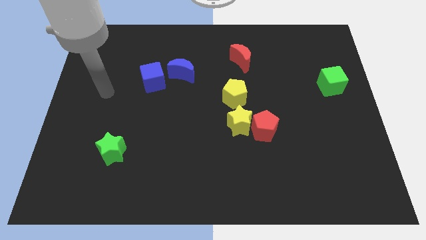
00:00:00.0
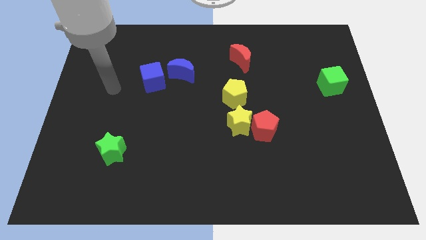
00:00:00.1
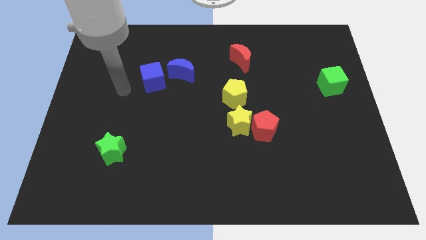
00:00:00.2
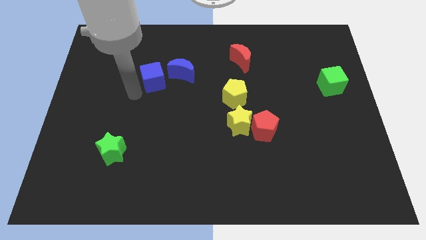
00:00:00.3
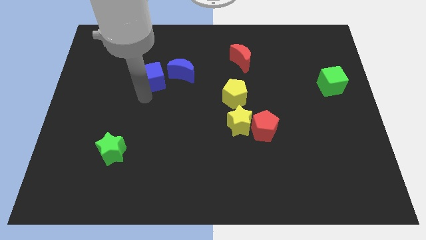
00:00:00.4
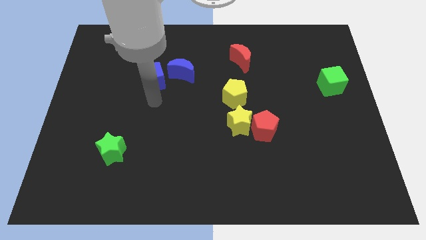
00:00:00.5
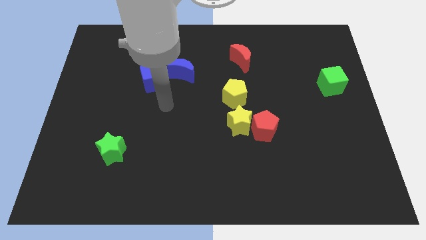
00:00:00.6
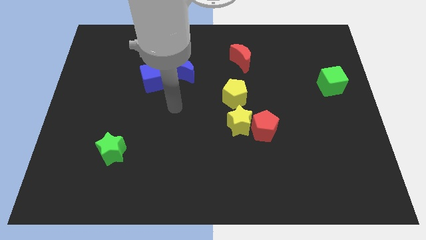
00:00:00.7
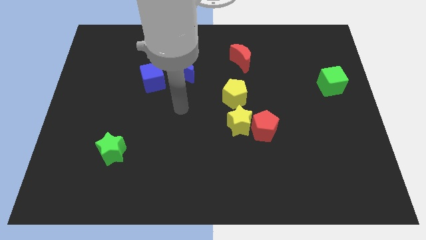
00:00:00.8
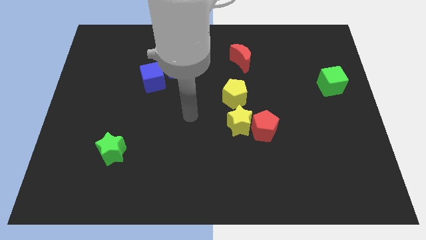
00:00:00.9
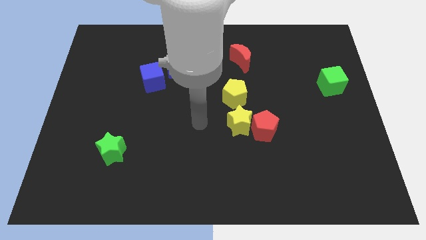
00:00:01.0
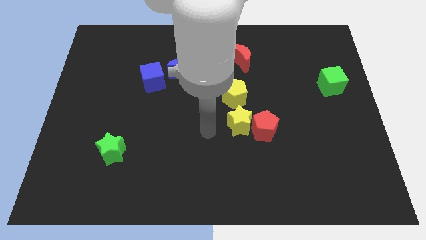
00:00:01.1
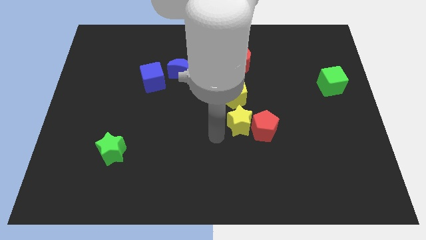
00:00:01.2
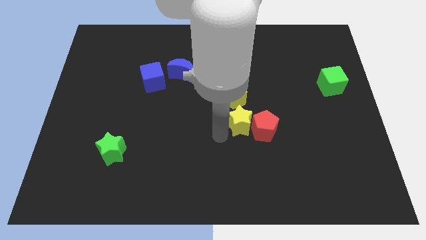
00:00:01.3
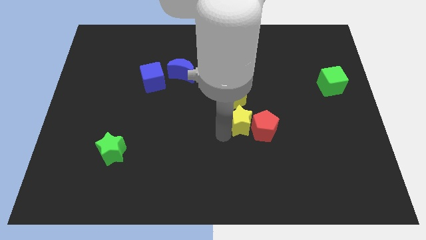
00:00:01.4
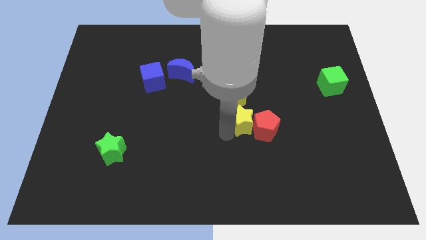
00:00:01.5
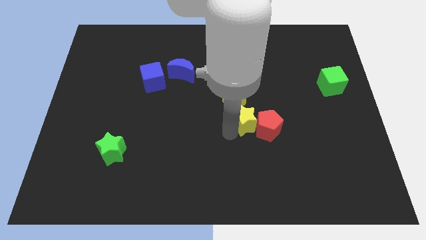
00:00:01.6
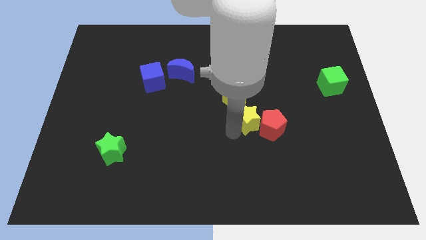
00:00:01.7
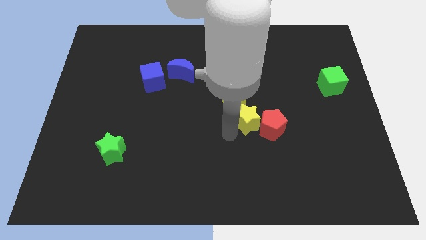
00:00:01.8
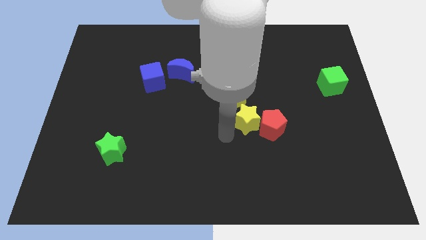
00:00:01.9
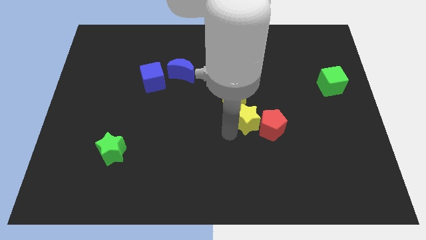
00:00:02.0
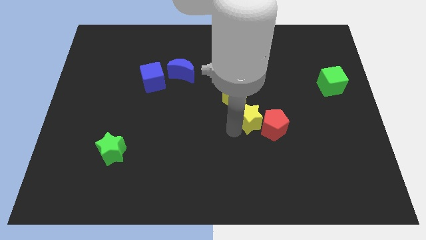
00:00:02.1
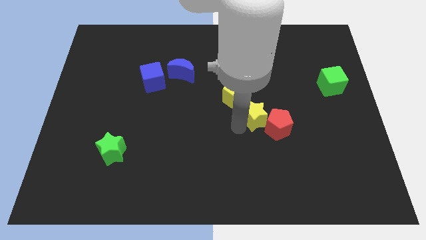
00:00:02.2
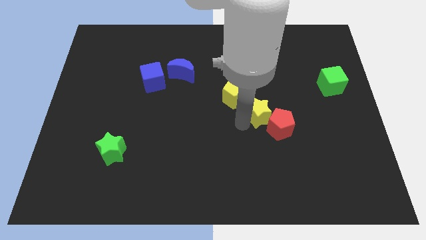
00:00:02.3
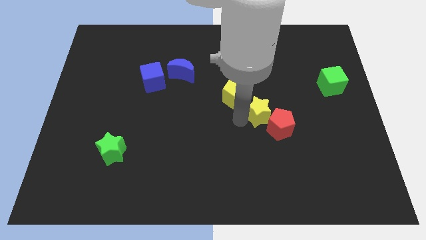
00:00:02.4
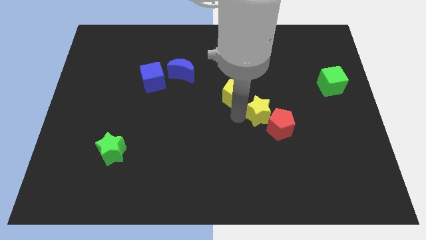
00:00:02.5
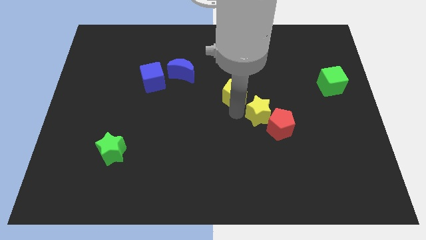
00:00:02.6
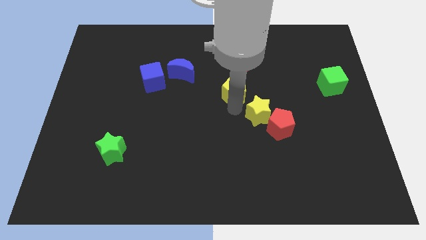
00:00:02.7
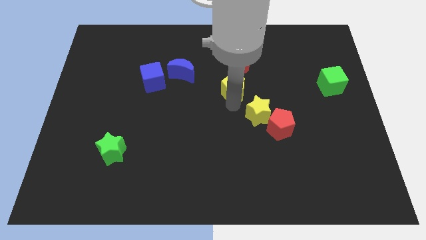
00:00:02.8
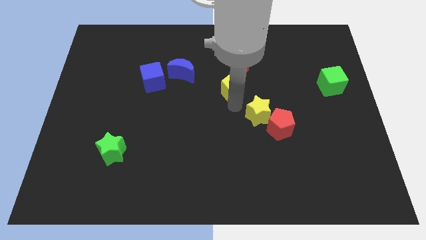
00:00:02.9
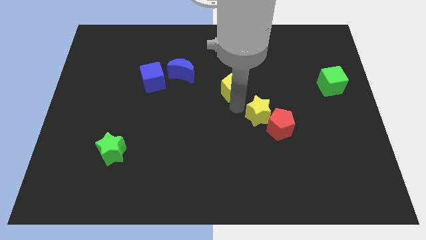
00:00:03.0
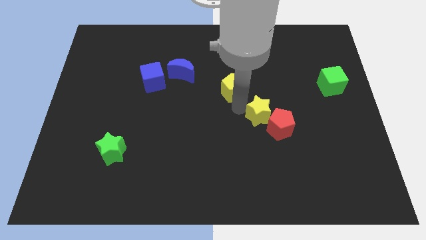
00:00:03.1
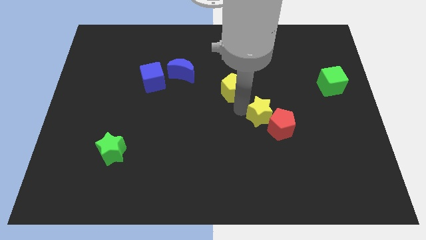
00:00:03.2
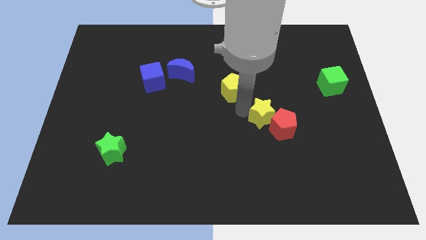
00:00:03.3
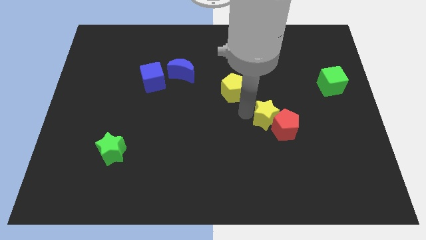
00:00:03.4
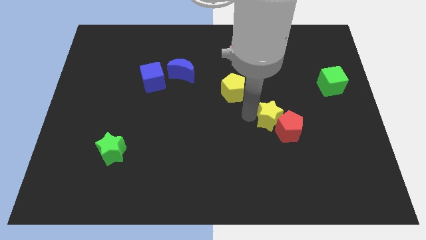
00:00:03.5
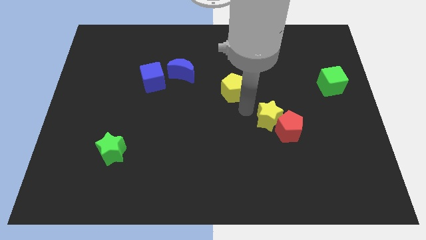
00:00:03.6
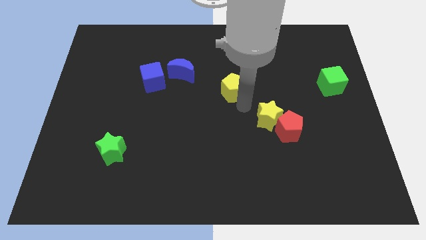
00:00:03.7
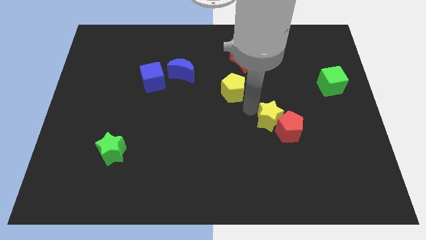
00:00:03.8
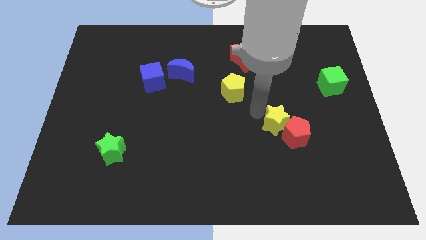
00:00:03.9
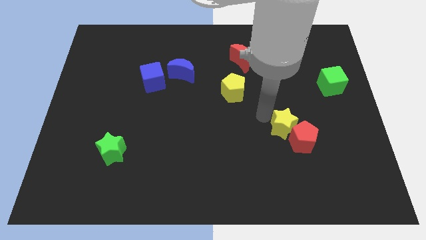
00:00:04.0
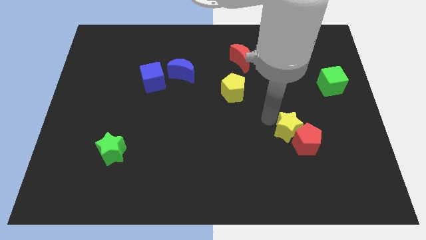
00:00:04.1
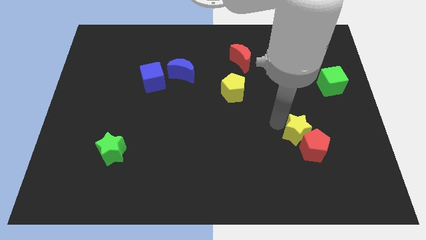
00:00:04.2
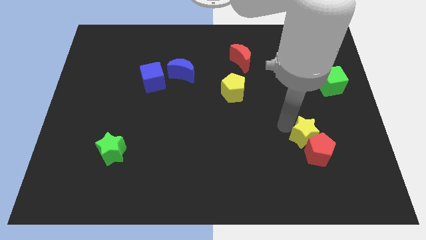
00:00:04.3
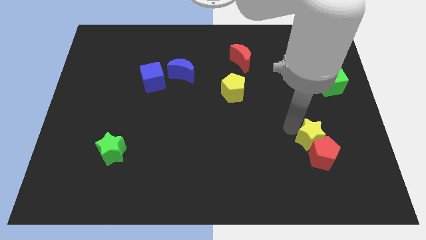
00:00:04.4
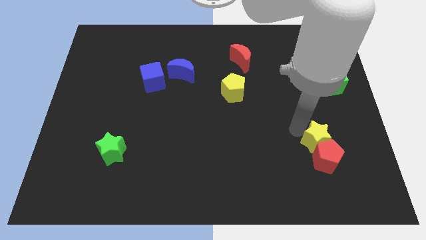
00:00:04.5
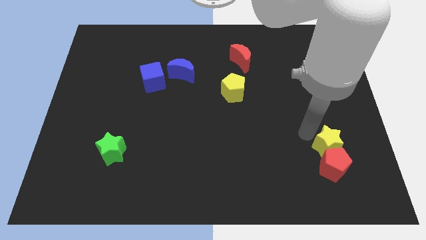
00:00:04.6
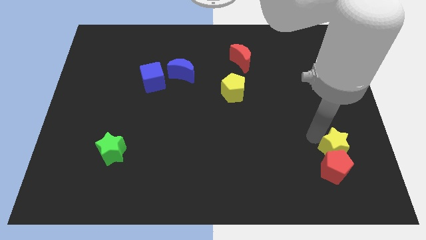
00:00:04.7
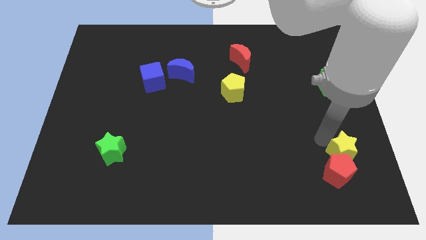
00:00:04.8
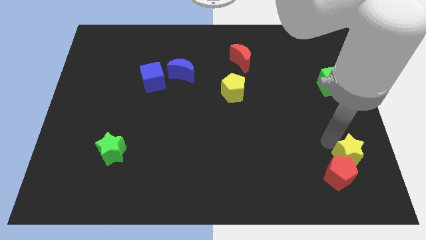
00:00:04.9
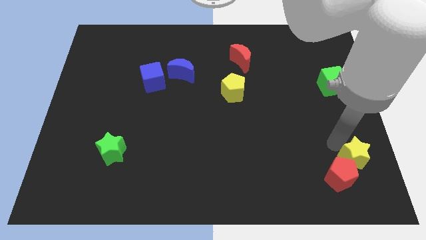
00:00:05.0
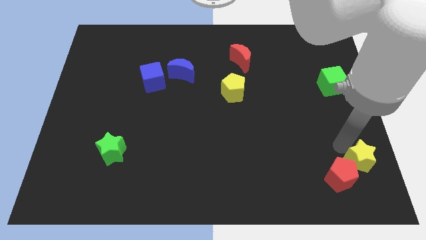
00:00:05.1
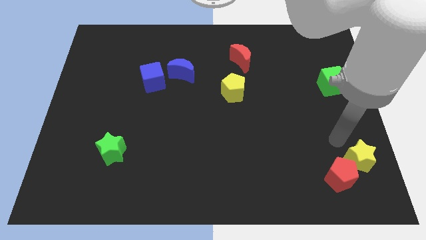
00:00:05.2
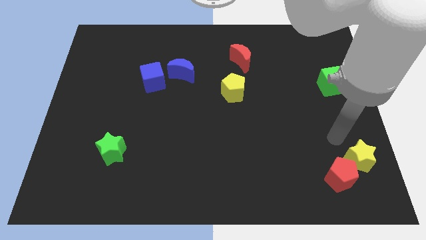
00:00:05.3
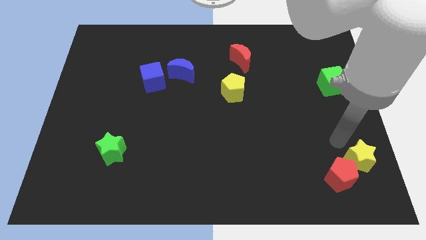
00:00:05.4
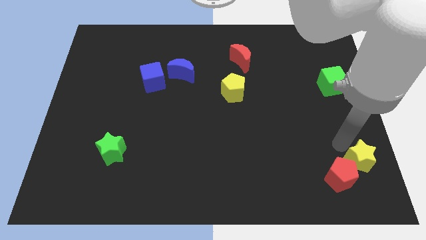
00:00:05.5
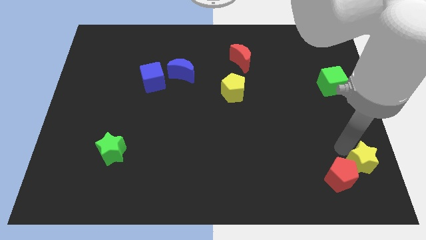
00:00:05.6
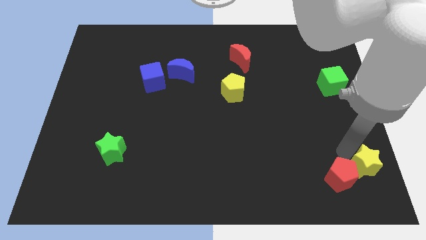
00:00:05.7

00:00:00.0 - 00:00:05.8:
put the yellow star to the bottom right
